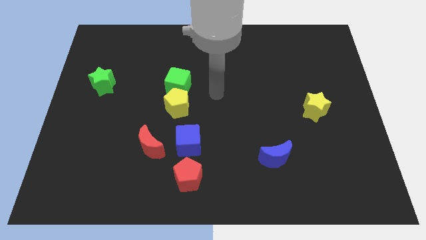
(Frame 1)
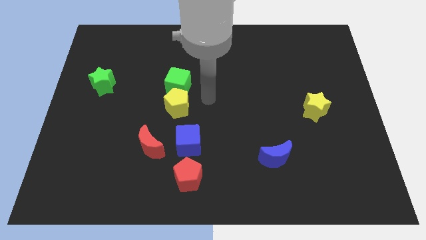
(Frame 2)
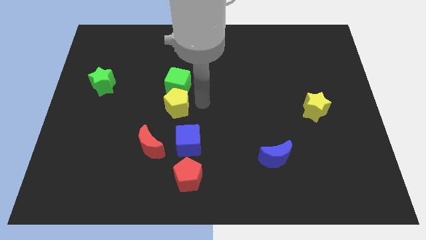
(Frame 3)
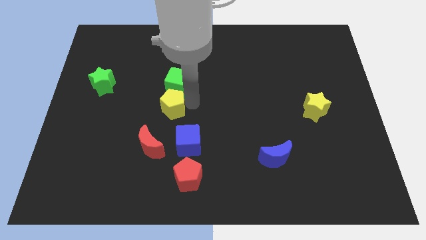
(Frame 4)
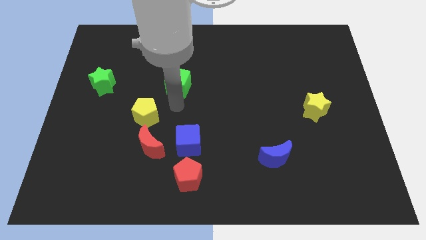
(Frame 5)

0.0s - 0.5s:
pull the green cube apart from the yellow pentagon

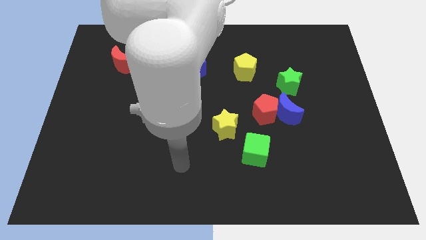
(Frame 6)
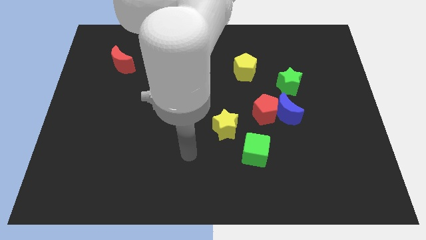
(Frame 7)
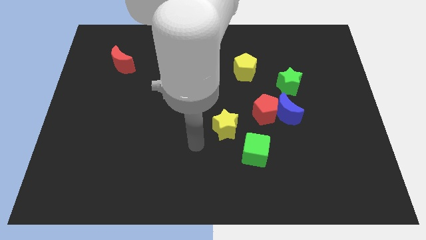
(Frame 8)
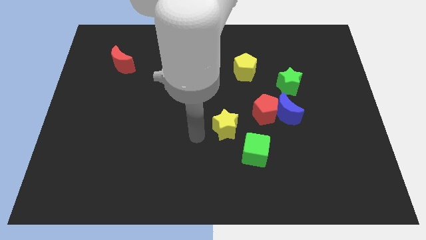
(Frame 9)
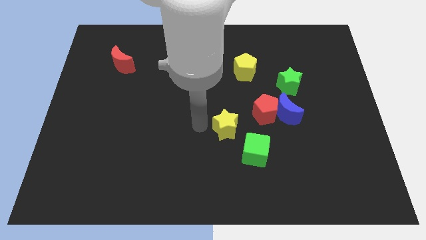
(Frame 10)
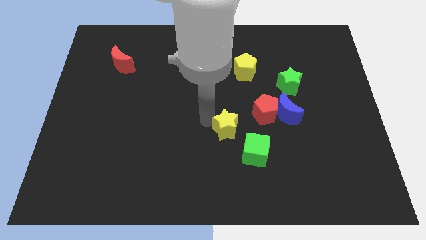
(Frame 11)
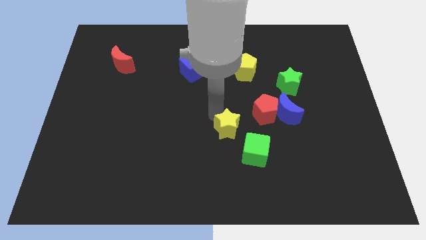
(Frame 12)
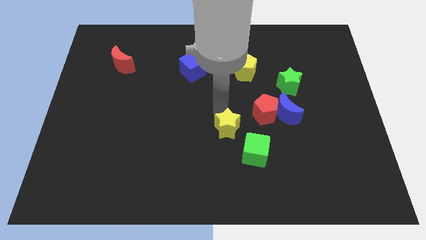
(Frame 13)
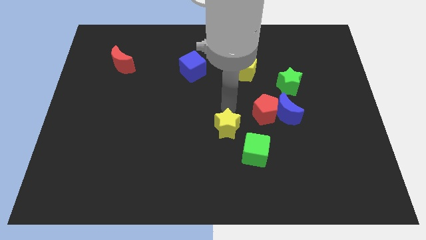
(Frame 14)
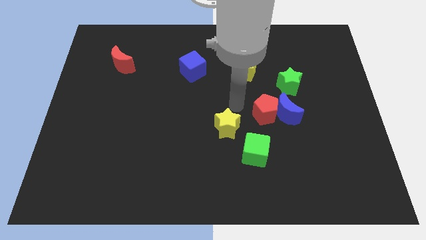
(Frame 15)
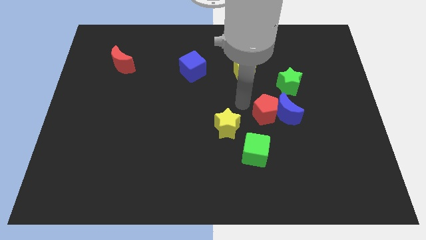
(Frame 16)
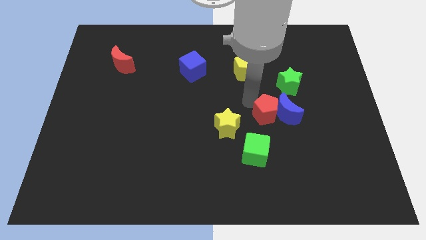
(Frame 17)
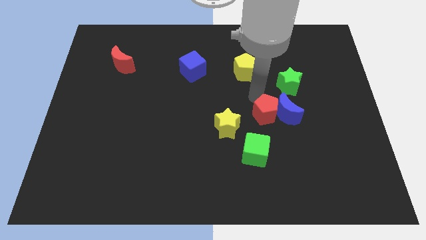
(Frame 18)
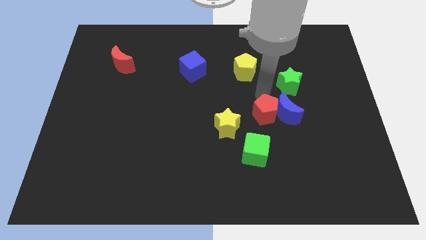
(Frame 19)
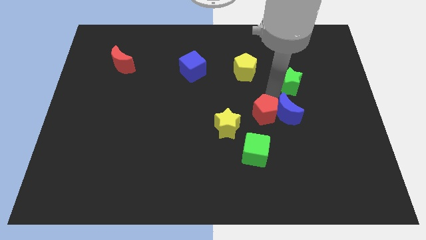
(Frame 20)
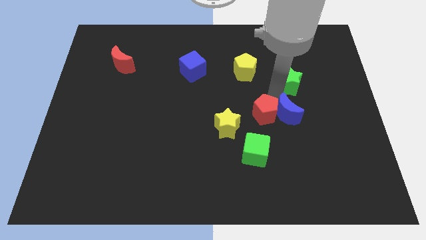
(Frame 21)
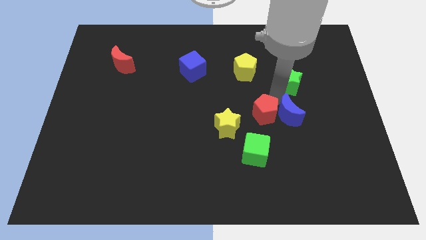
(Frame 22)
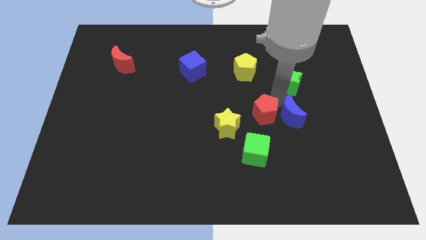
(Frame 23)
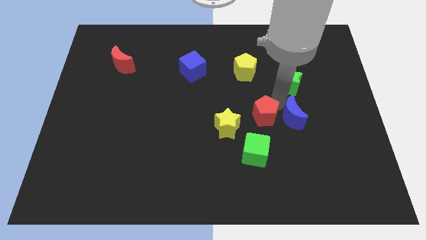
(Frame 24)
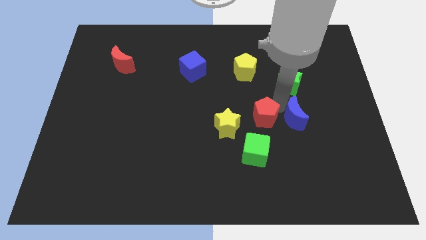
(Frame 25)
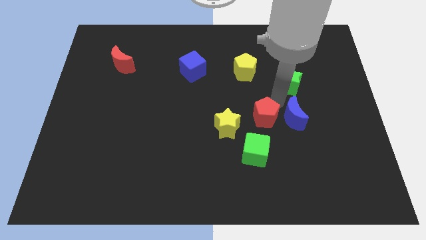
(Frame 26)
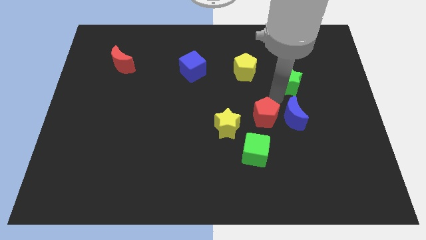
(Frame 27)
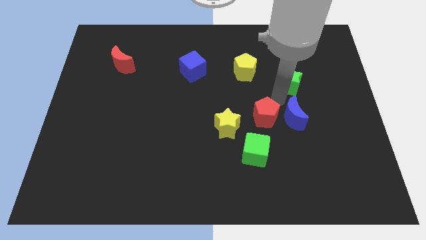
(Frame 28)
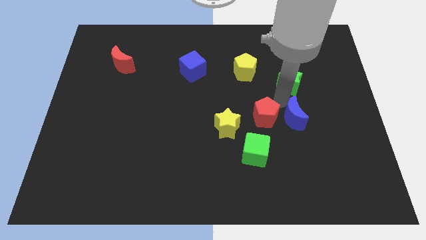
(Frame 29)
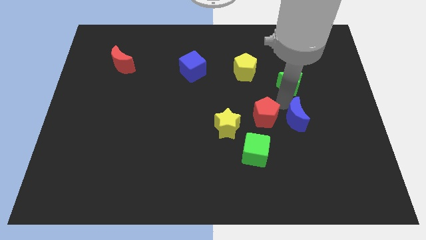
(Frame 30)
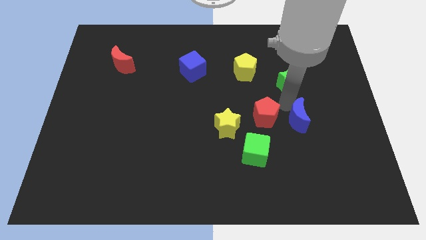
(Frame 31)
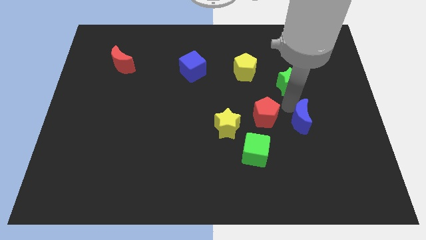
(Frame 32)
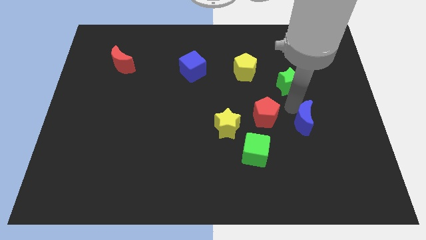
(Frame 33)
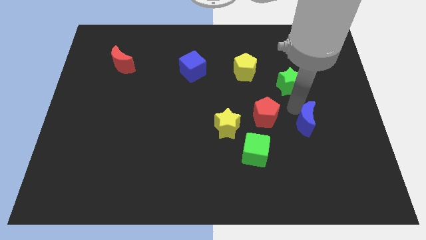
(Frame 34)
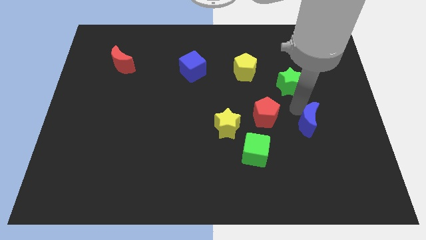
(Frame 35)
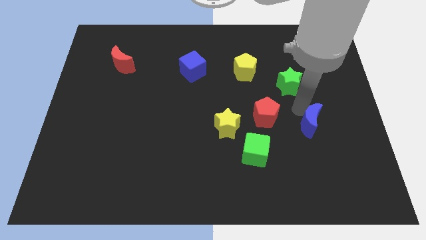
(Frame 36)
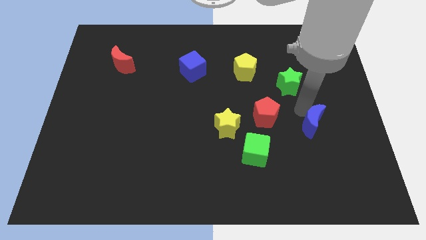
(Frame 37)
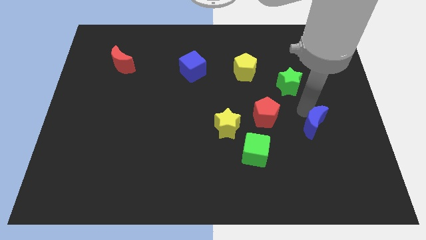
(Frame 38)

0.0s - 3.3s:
move the blue moon away from the red pentagon and green star

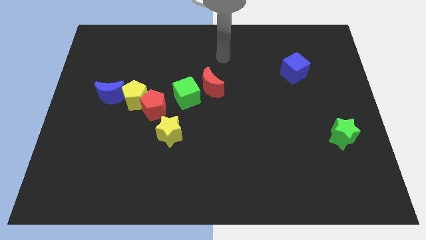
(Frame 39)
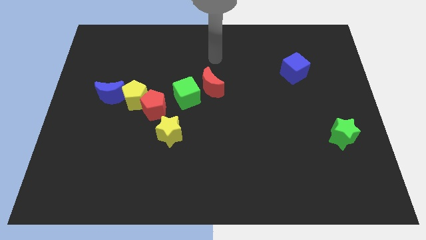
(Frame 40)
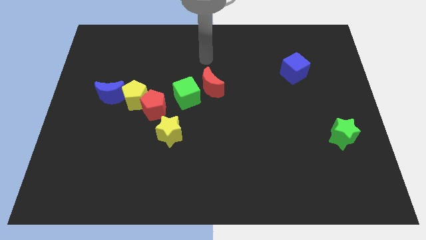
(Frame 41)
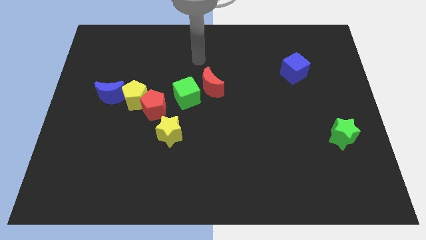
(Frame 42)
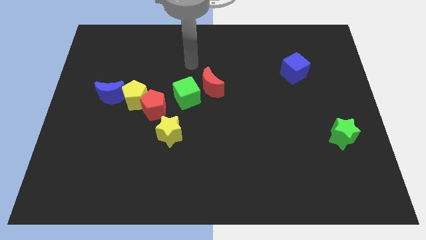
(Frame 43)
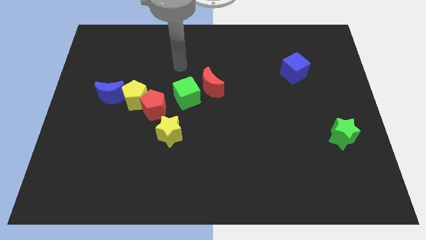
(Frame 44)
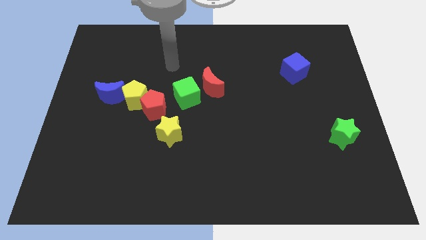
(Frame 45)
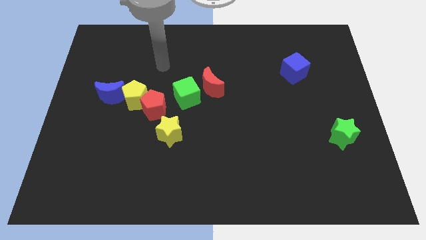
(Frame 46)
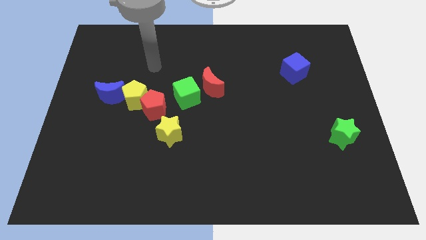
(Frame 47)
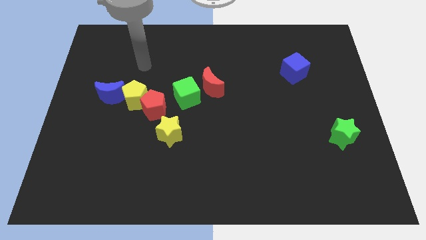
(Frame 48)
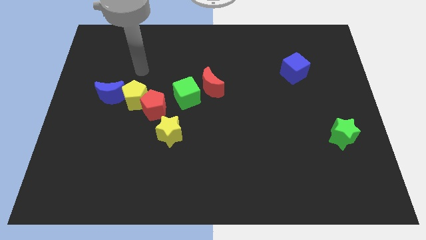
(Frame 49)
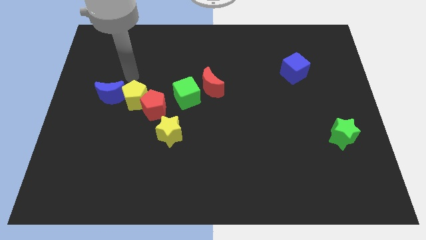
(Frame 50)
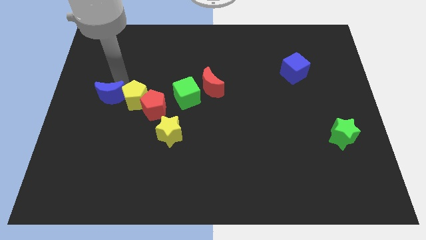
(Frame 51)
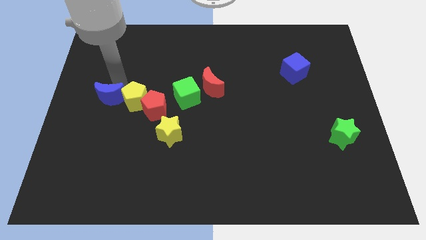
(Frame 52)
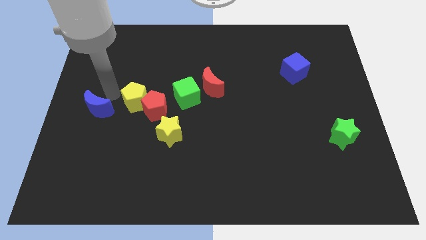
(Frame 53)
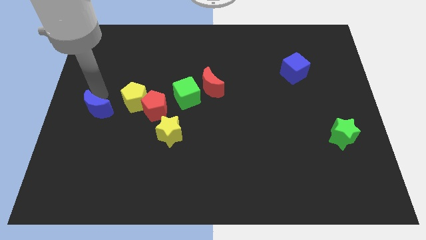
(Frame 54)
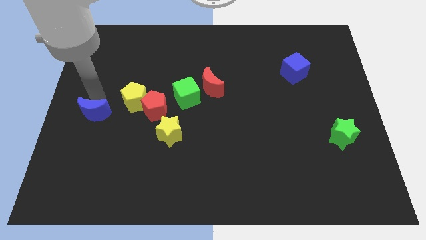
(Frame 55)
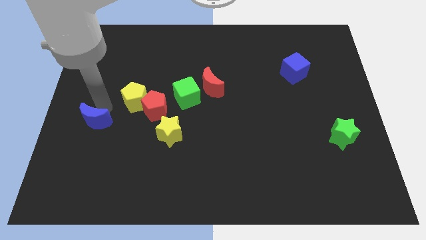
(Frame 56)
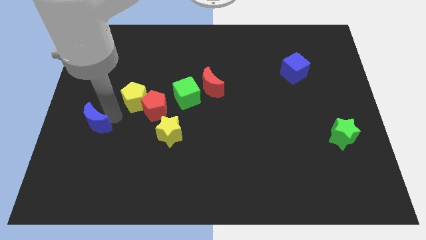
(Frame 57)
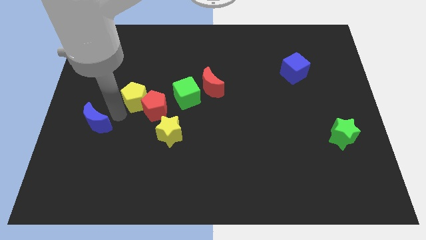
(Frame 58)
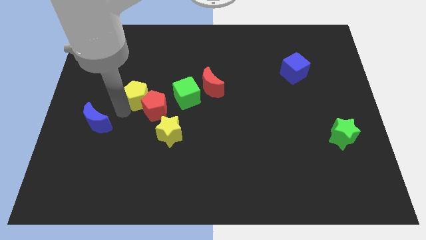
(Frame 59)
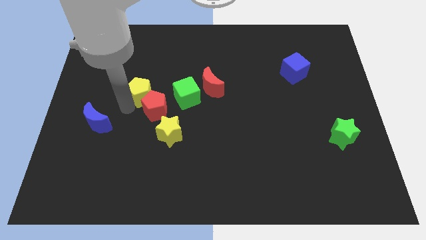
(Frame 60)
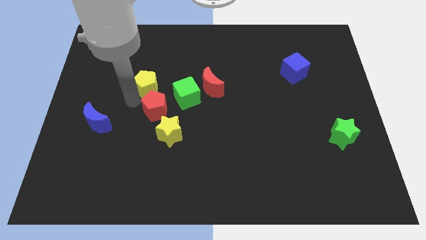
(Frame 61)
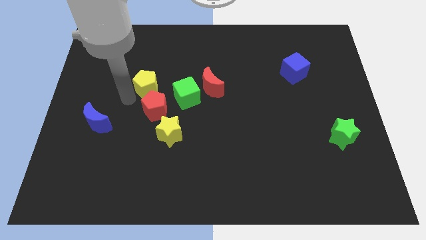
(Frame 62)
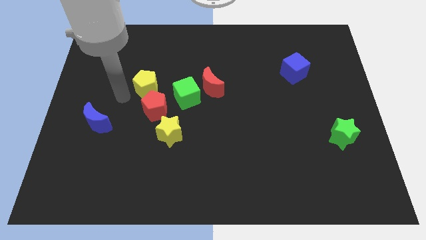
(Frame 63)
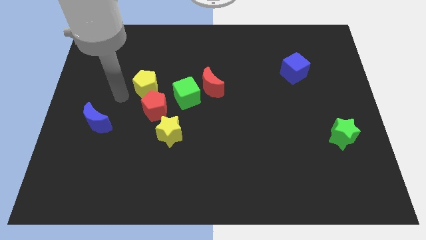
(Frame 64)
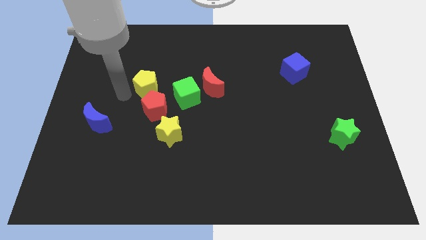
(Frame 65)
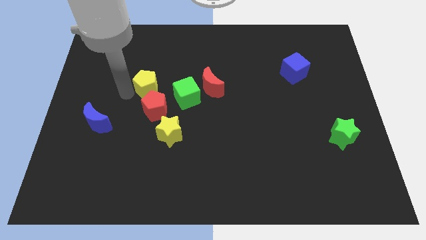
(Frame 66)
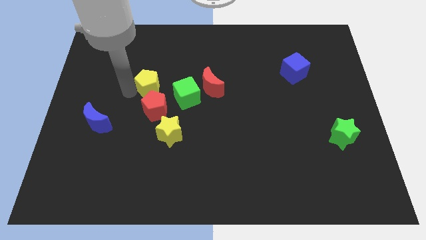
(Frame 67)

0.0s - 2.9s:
separate the yellow pentagon from the red pentagon and blue moon

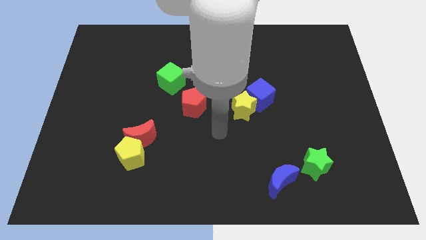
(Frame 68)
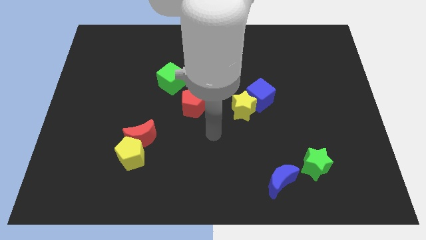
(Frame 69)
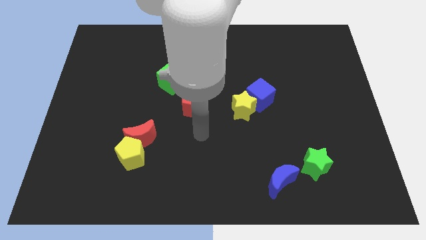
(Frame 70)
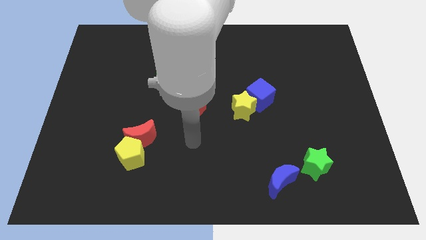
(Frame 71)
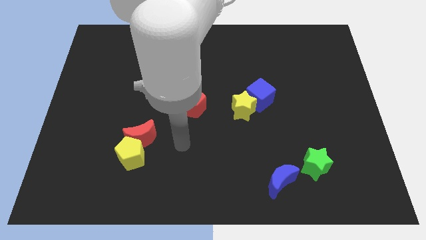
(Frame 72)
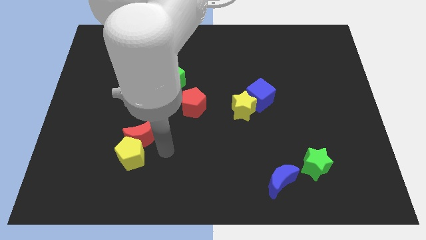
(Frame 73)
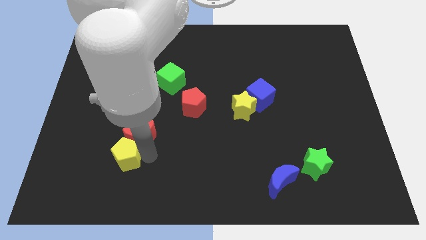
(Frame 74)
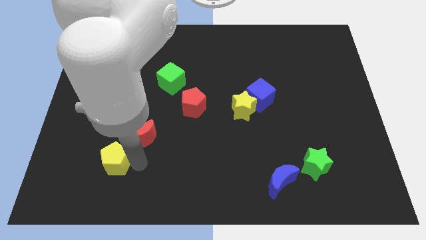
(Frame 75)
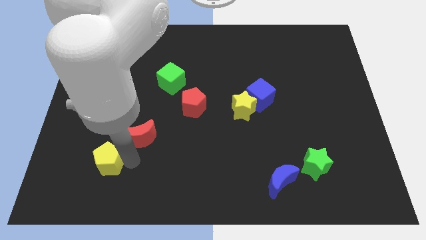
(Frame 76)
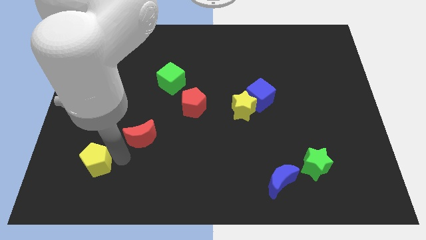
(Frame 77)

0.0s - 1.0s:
separate the red moon from the yellow pentagon

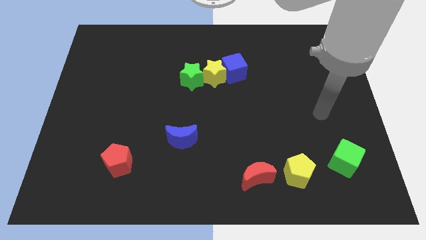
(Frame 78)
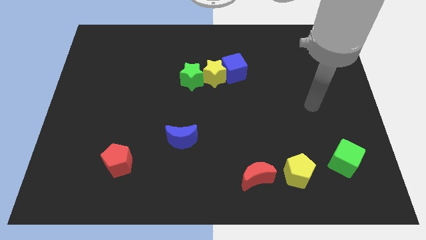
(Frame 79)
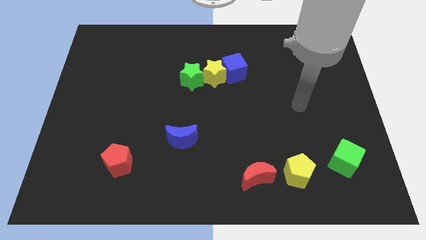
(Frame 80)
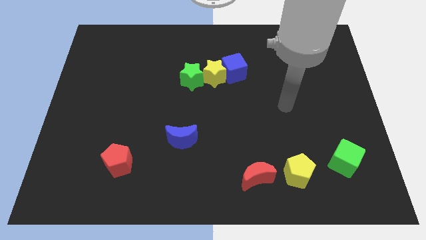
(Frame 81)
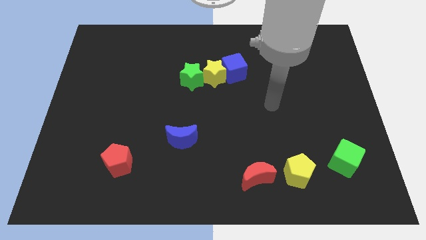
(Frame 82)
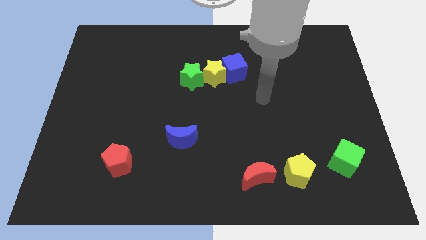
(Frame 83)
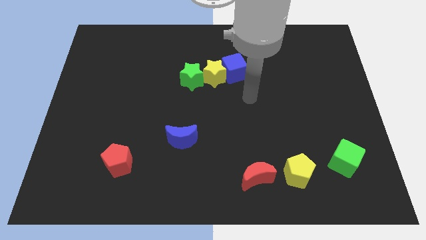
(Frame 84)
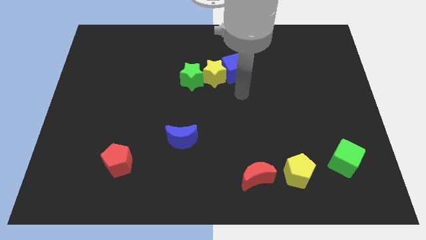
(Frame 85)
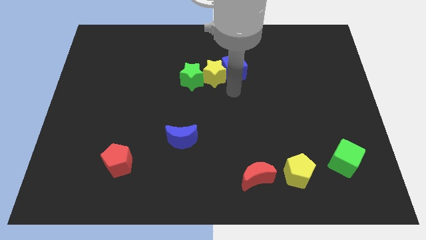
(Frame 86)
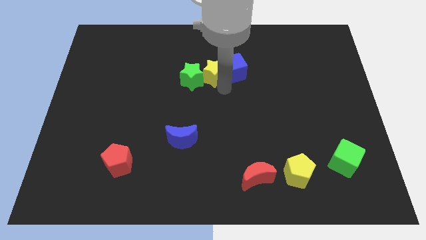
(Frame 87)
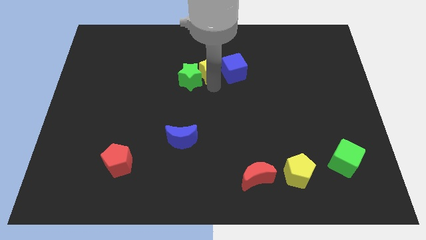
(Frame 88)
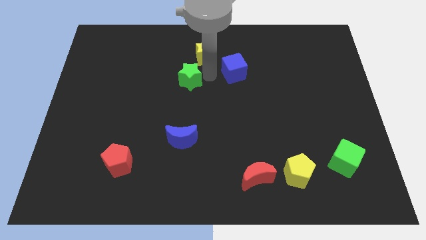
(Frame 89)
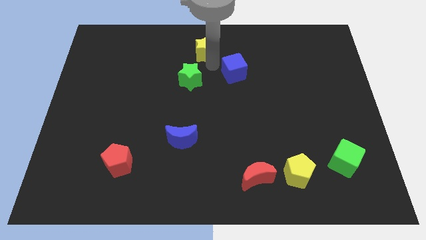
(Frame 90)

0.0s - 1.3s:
separate the blue cube from the yellow star

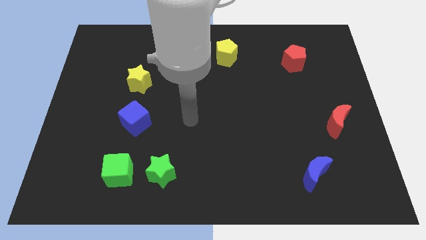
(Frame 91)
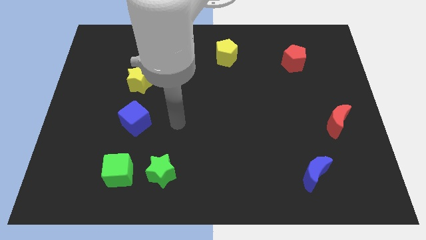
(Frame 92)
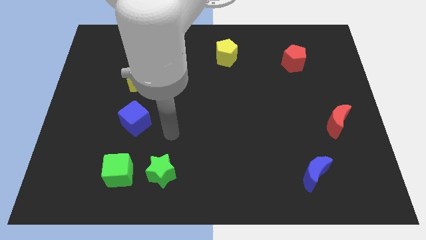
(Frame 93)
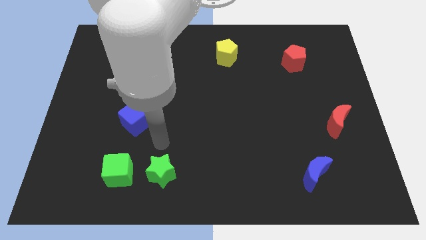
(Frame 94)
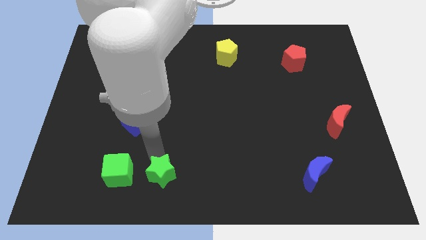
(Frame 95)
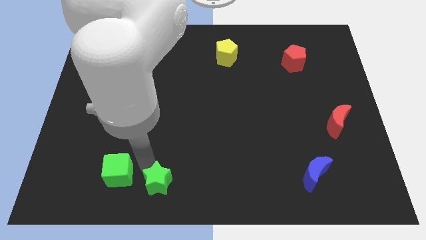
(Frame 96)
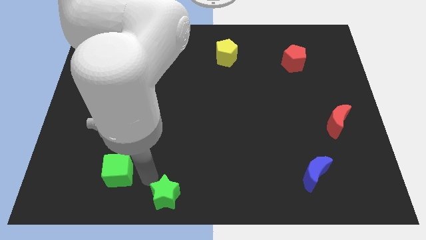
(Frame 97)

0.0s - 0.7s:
move the green cube away from the green star
